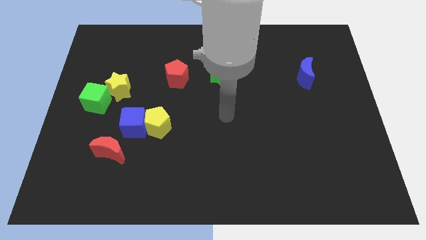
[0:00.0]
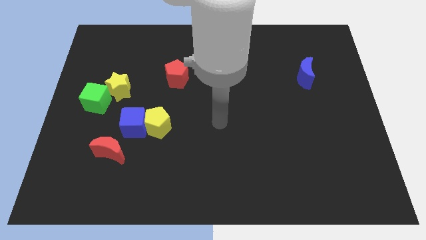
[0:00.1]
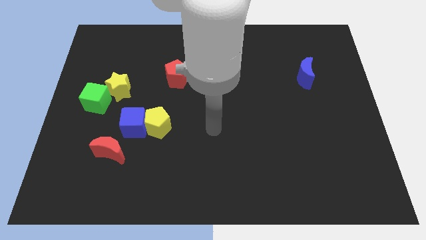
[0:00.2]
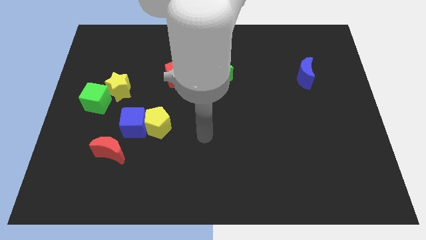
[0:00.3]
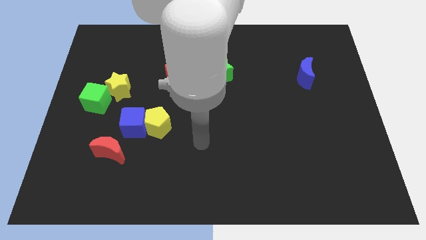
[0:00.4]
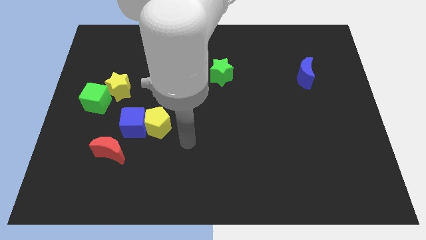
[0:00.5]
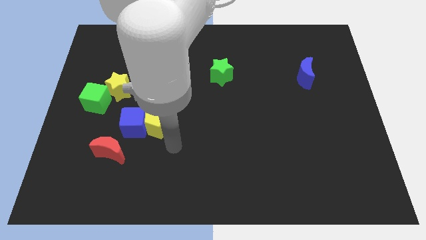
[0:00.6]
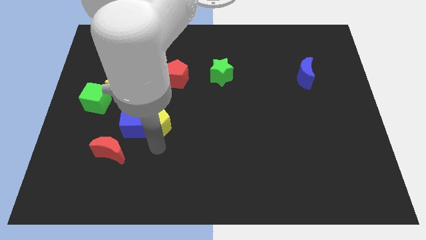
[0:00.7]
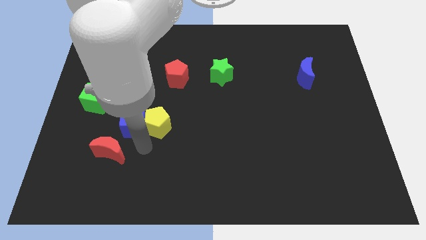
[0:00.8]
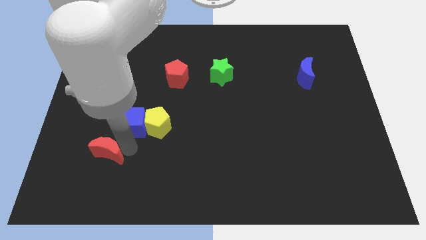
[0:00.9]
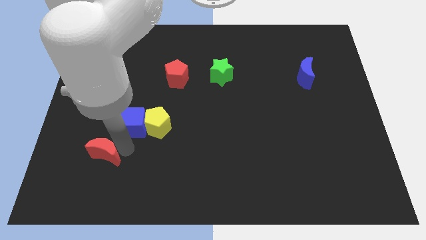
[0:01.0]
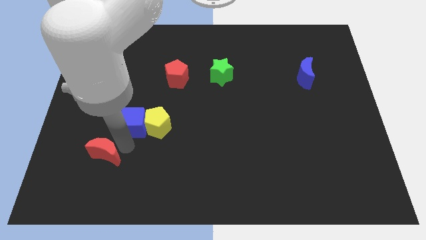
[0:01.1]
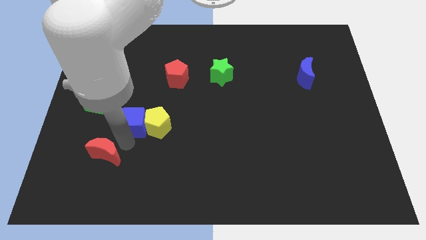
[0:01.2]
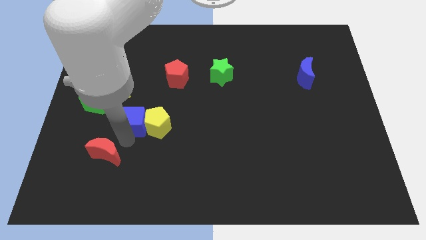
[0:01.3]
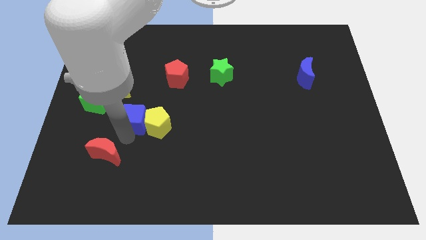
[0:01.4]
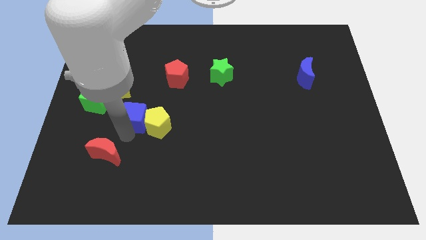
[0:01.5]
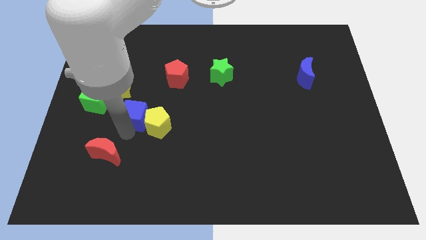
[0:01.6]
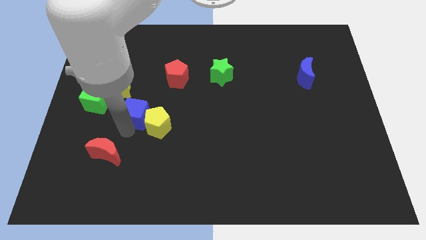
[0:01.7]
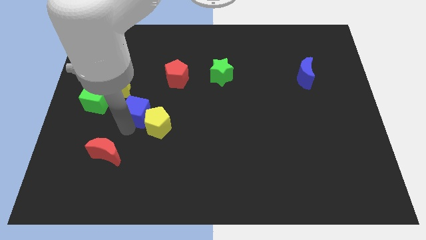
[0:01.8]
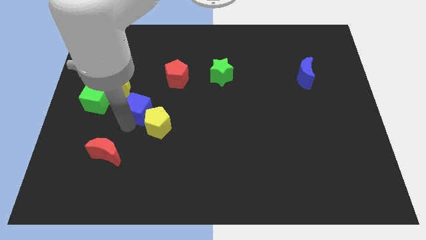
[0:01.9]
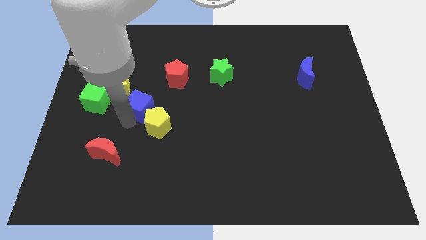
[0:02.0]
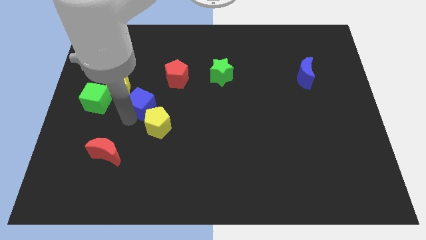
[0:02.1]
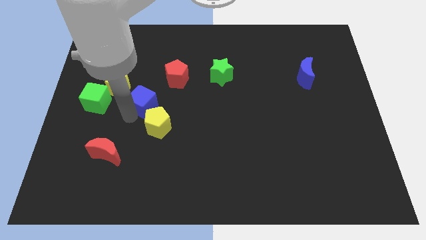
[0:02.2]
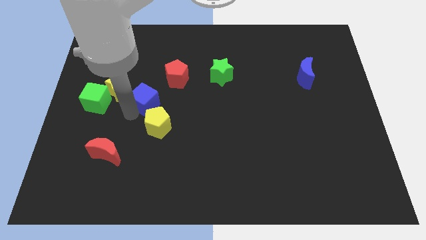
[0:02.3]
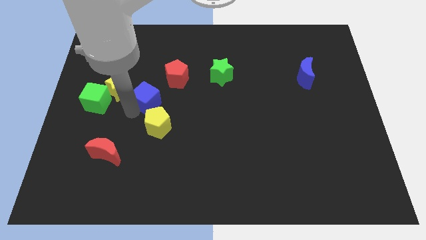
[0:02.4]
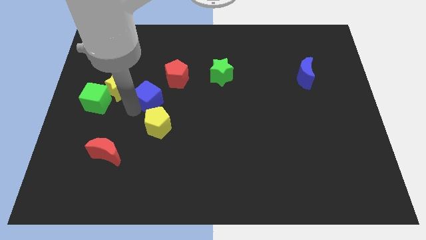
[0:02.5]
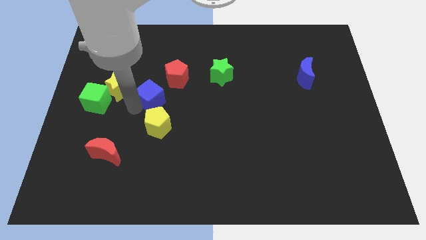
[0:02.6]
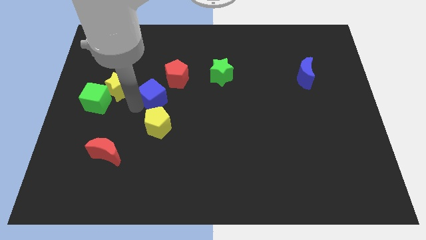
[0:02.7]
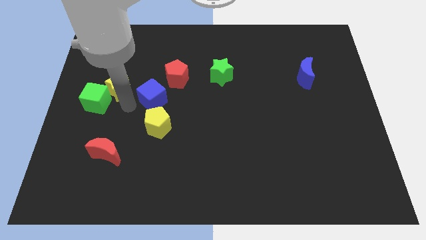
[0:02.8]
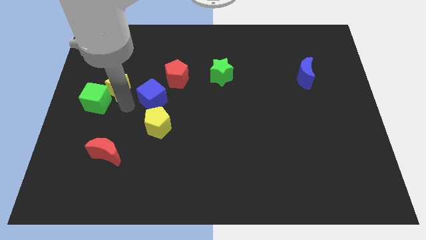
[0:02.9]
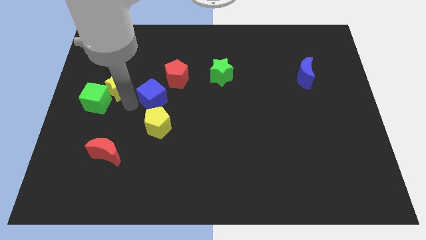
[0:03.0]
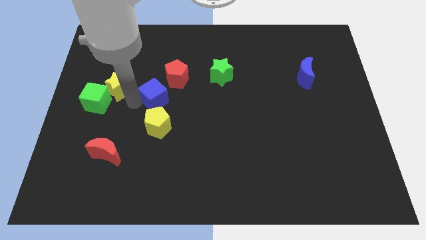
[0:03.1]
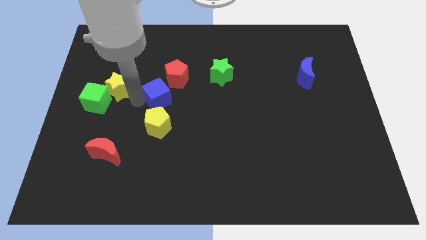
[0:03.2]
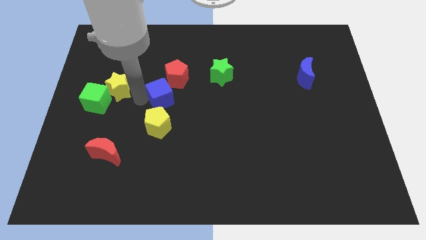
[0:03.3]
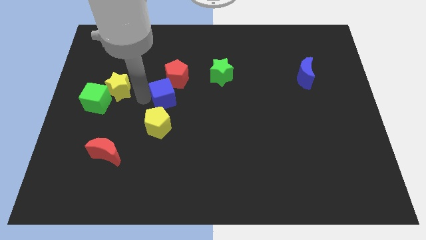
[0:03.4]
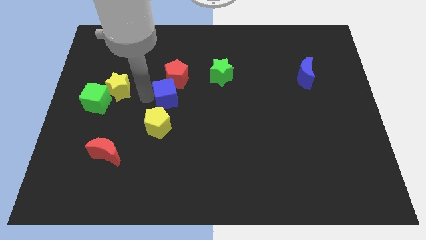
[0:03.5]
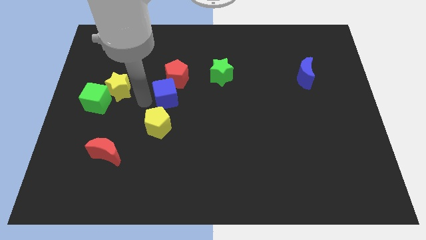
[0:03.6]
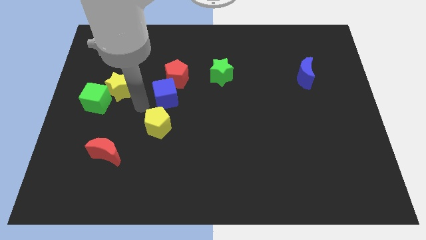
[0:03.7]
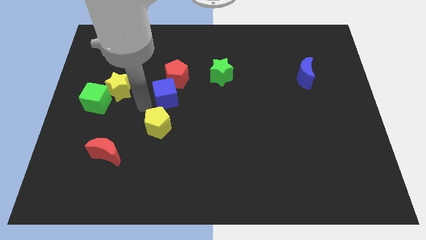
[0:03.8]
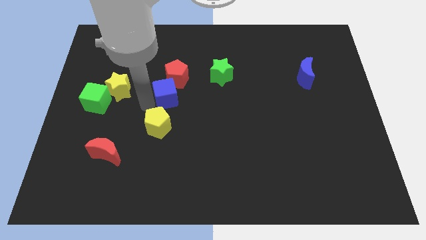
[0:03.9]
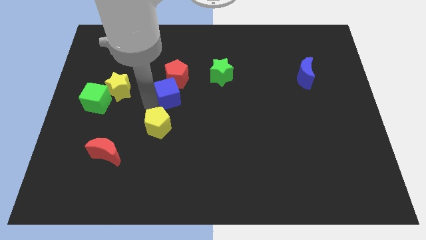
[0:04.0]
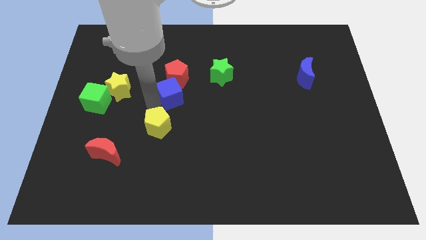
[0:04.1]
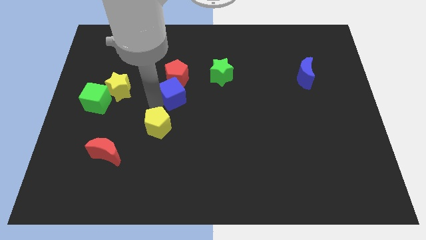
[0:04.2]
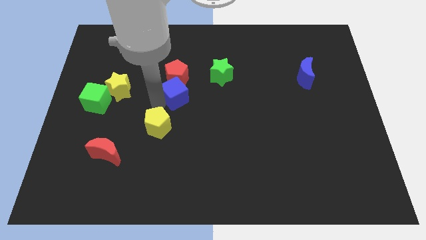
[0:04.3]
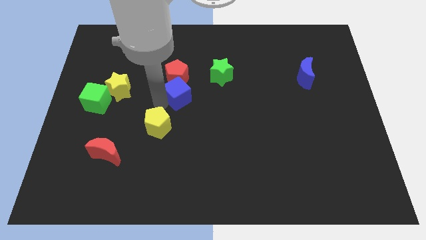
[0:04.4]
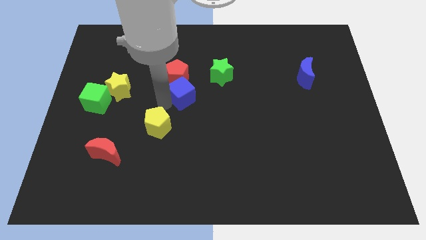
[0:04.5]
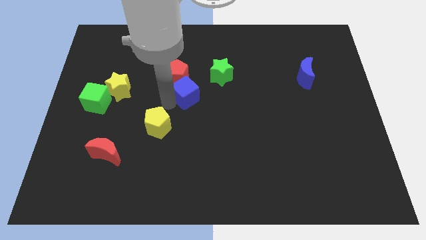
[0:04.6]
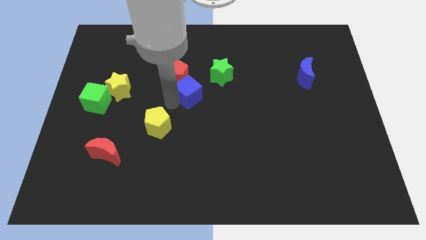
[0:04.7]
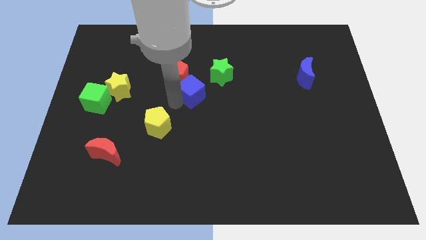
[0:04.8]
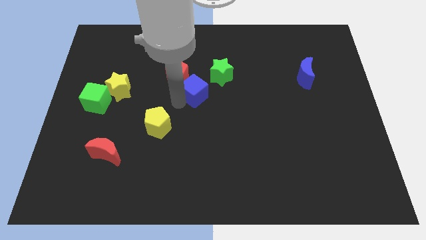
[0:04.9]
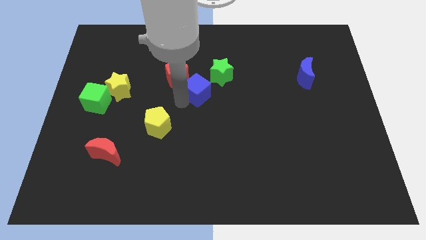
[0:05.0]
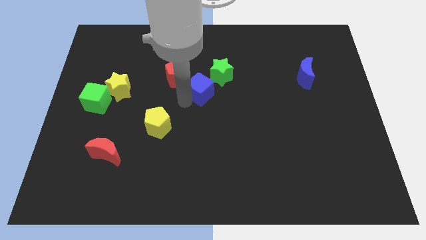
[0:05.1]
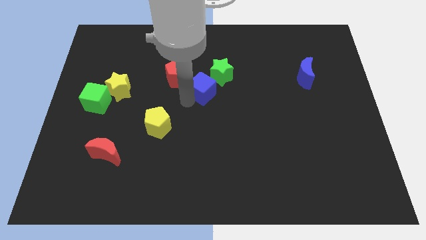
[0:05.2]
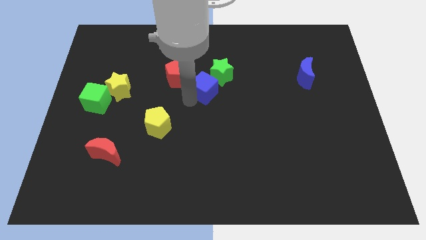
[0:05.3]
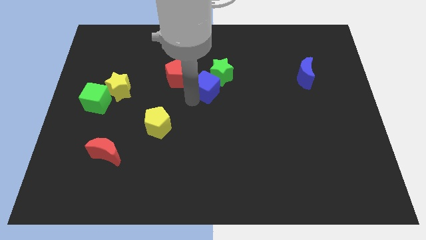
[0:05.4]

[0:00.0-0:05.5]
put the blue cube next to the green star

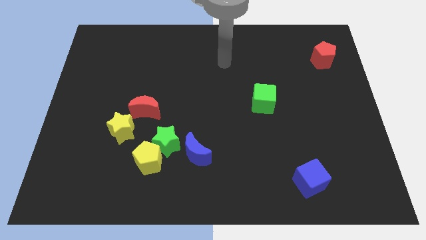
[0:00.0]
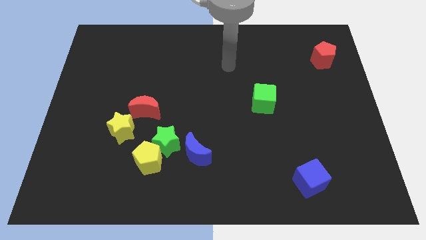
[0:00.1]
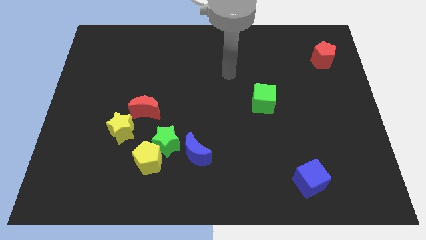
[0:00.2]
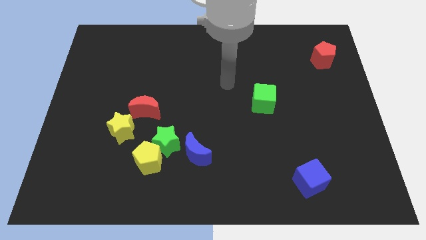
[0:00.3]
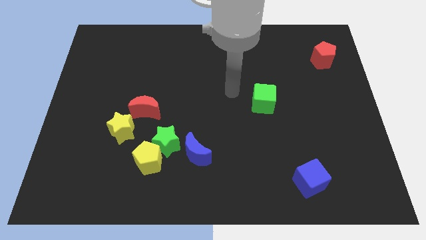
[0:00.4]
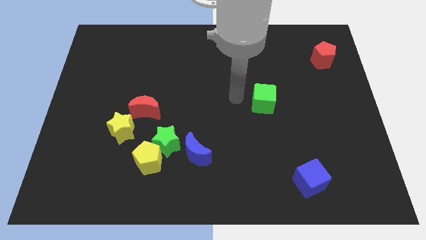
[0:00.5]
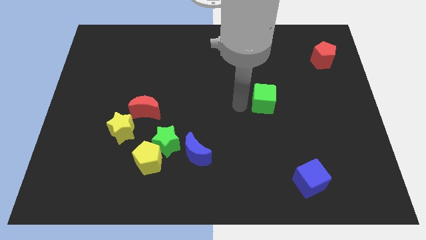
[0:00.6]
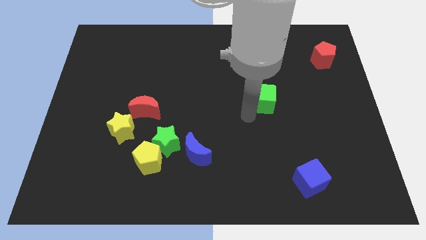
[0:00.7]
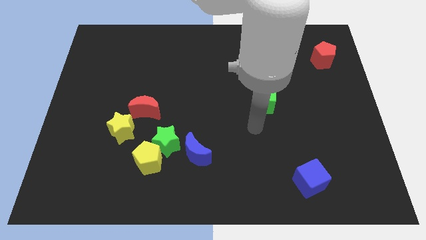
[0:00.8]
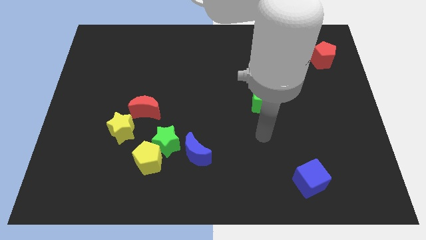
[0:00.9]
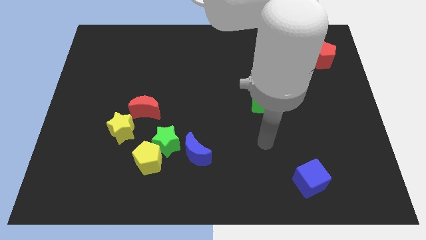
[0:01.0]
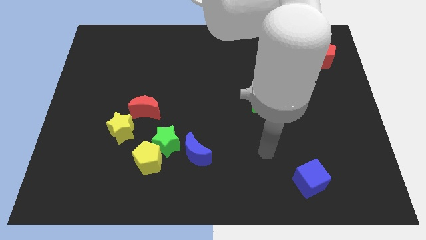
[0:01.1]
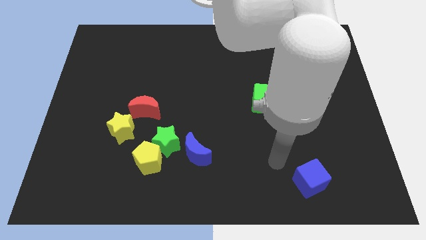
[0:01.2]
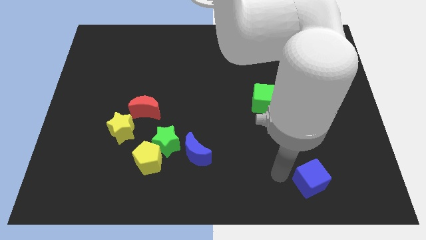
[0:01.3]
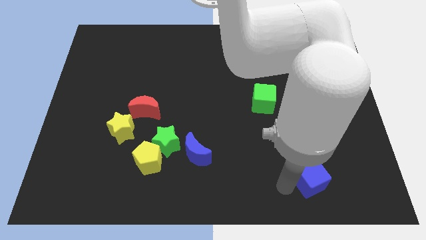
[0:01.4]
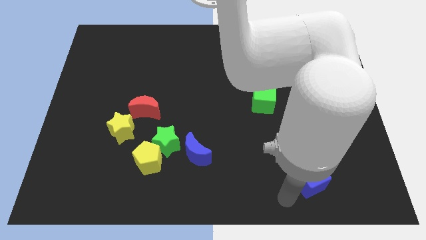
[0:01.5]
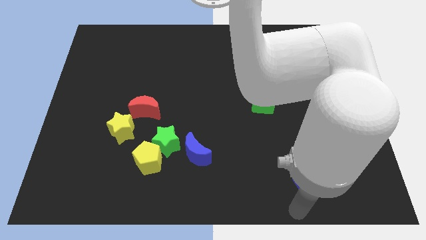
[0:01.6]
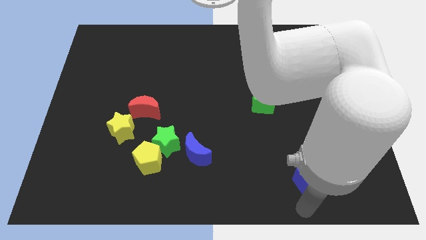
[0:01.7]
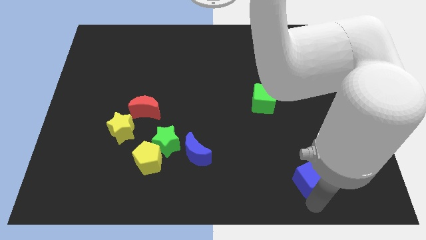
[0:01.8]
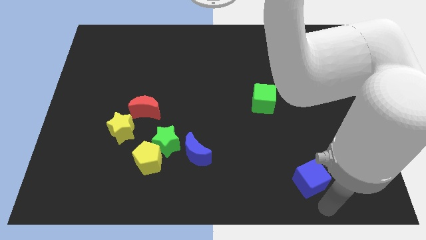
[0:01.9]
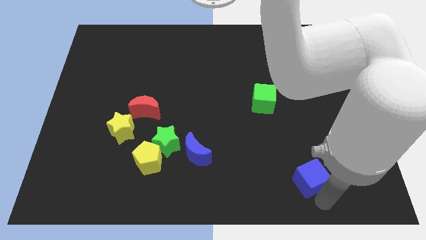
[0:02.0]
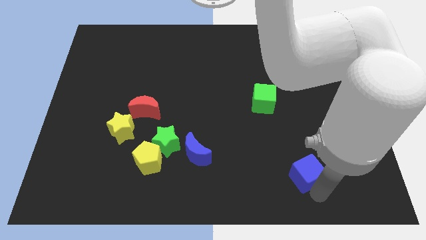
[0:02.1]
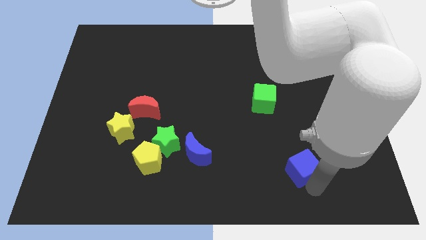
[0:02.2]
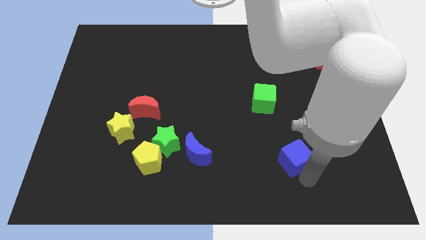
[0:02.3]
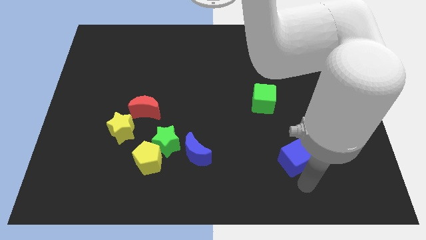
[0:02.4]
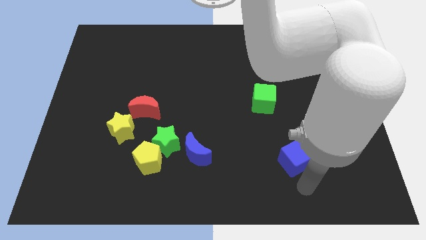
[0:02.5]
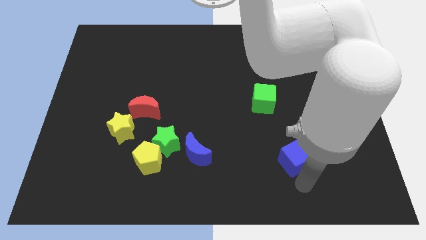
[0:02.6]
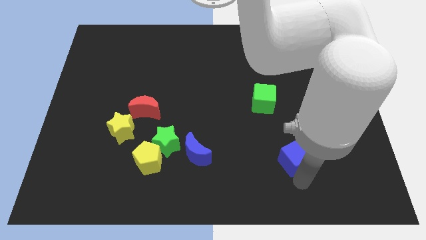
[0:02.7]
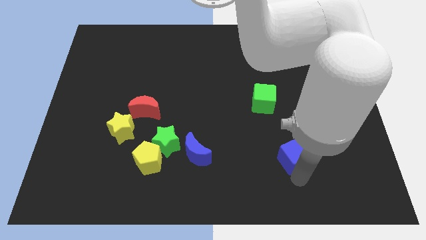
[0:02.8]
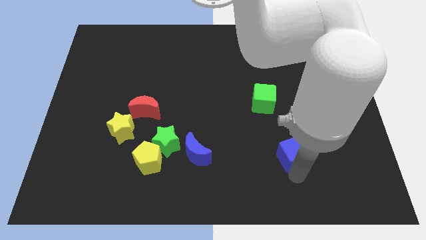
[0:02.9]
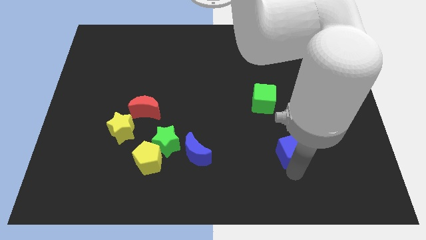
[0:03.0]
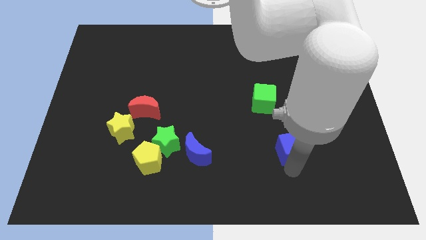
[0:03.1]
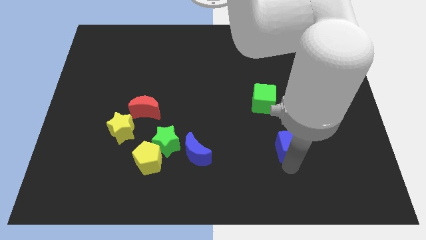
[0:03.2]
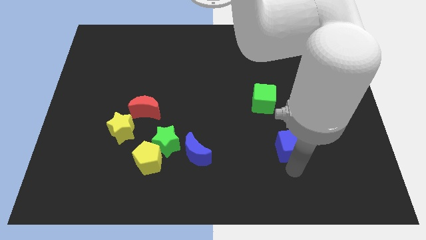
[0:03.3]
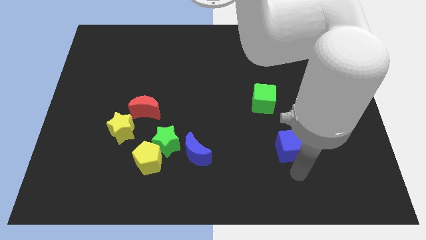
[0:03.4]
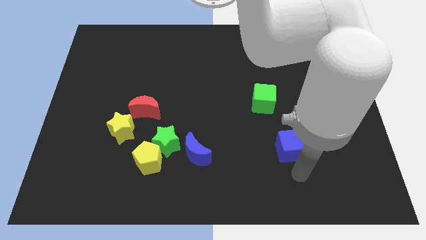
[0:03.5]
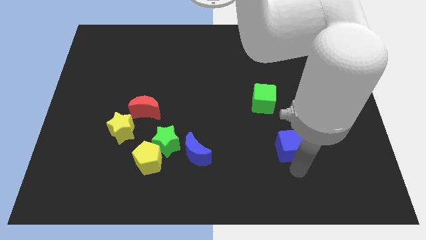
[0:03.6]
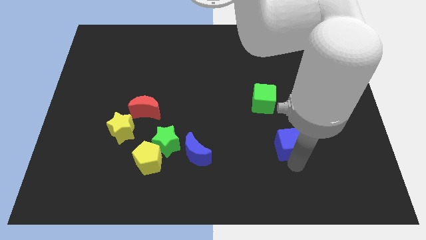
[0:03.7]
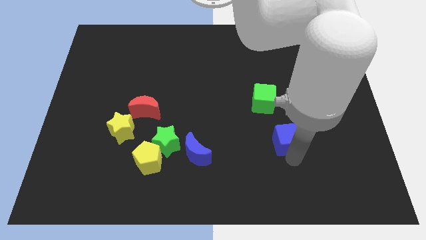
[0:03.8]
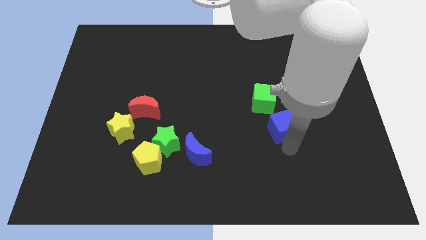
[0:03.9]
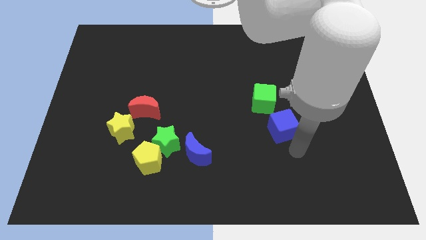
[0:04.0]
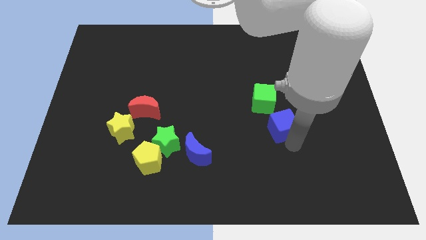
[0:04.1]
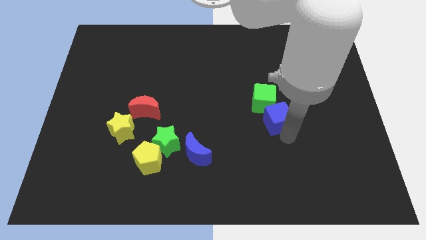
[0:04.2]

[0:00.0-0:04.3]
push the blue cube to the green cube
